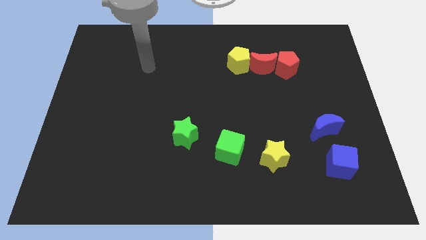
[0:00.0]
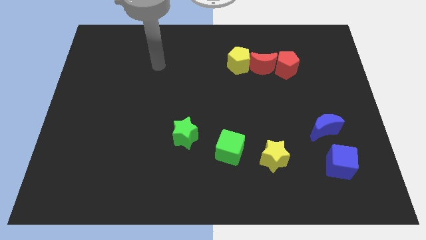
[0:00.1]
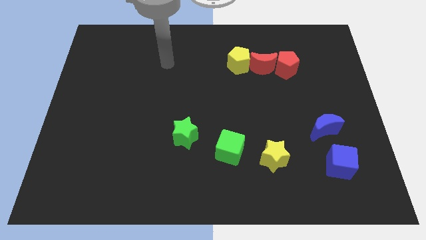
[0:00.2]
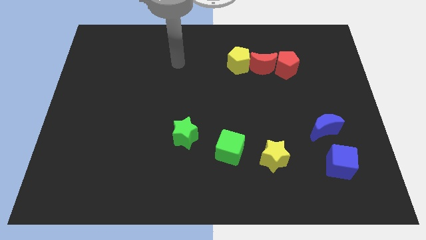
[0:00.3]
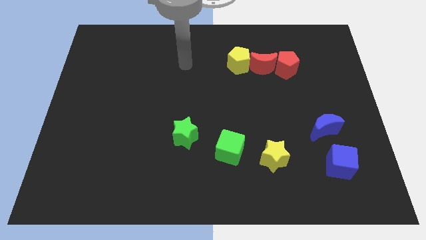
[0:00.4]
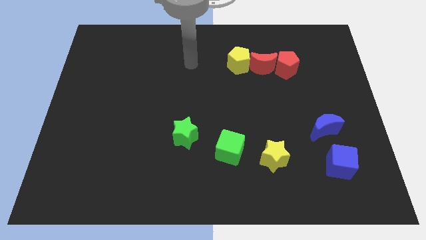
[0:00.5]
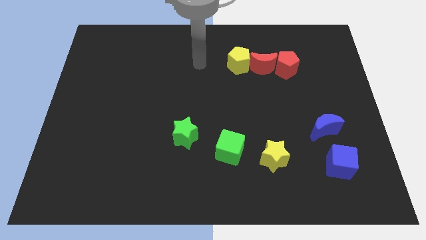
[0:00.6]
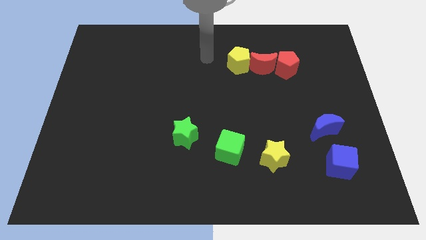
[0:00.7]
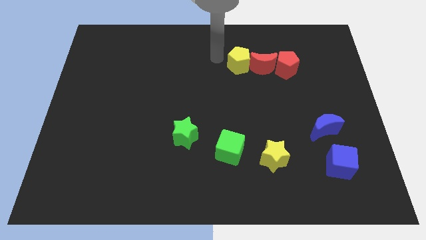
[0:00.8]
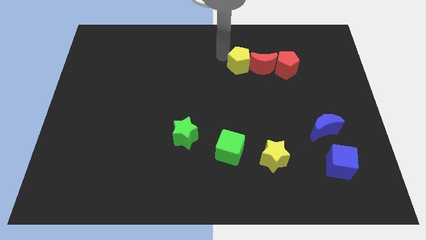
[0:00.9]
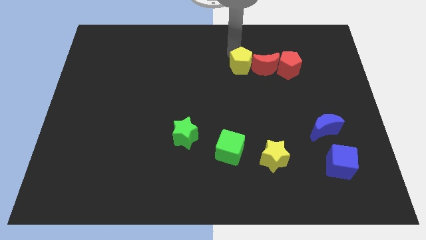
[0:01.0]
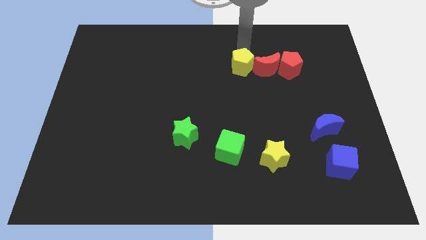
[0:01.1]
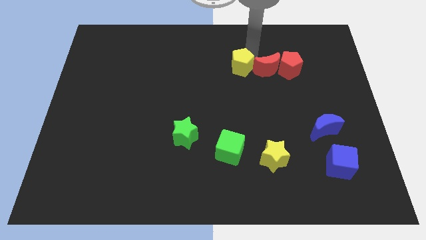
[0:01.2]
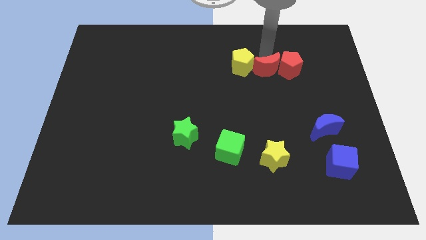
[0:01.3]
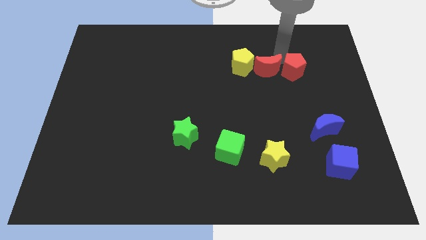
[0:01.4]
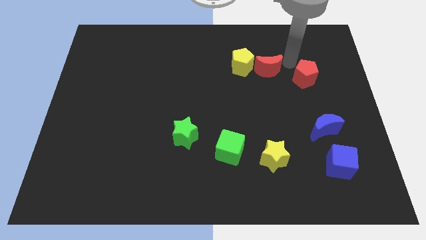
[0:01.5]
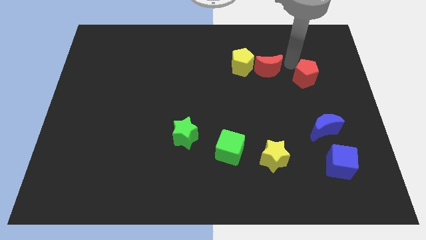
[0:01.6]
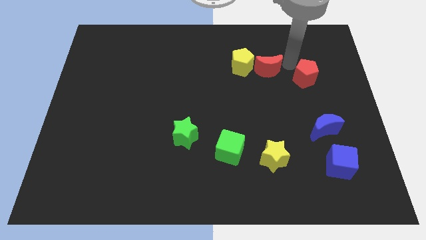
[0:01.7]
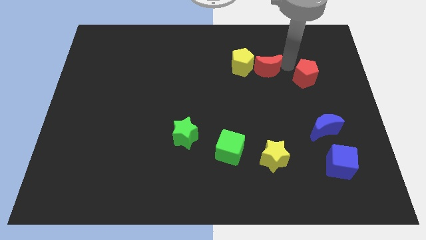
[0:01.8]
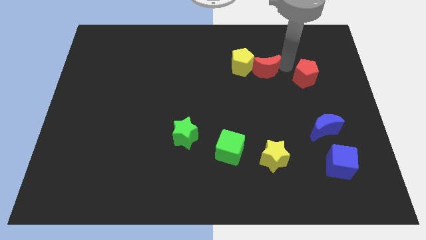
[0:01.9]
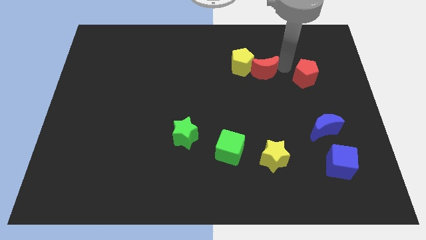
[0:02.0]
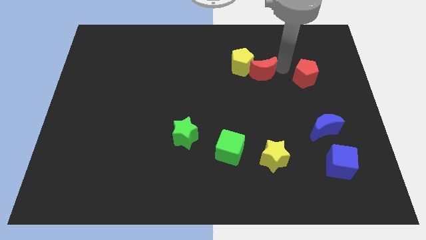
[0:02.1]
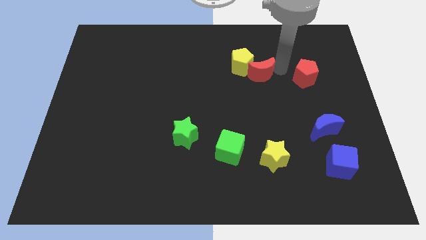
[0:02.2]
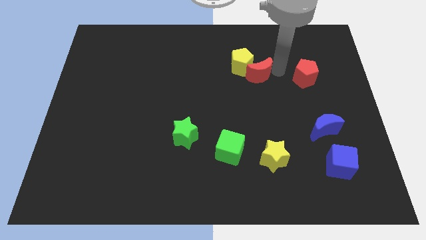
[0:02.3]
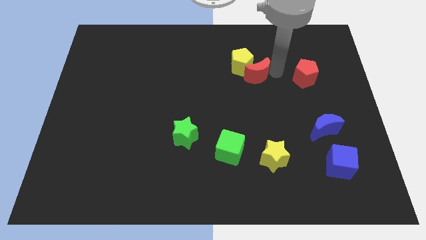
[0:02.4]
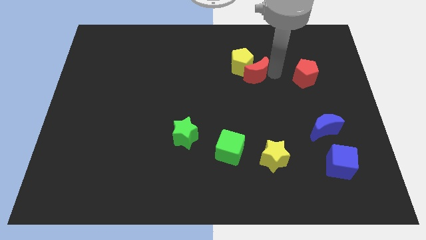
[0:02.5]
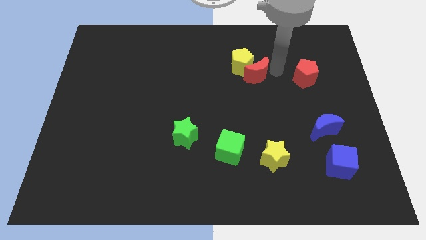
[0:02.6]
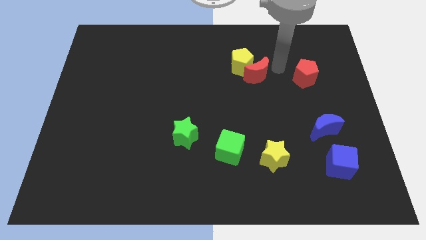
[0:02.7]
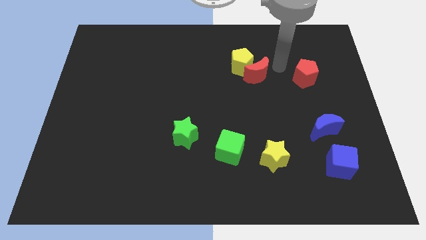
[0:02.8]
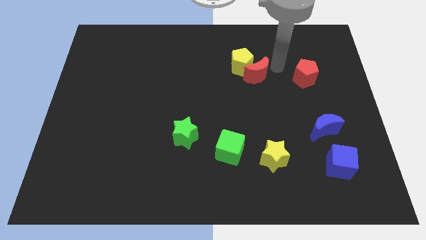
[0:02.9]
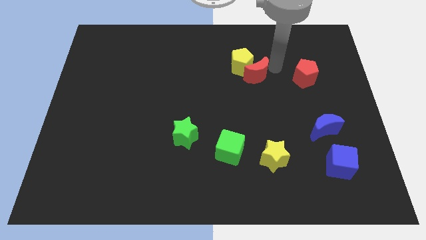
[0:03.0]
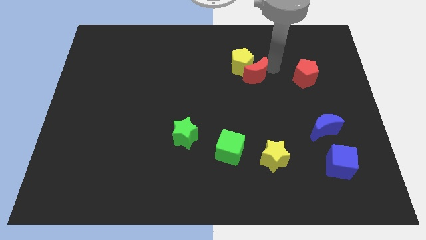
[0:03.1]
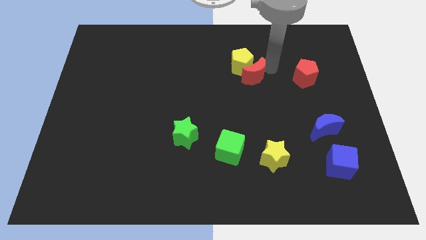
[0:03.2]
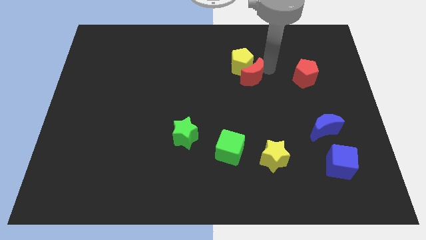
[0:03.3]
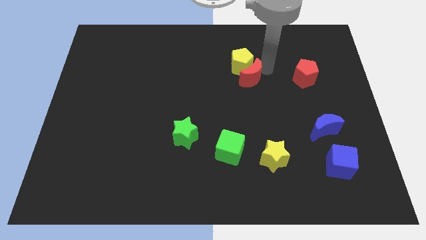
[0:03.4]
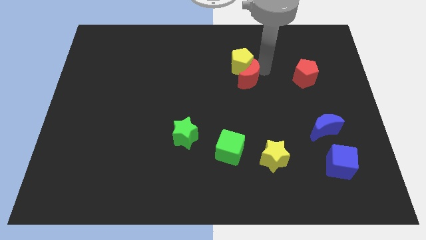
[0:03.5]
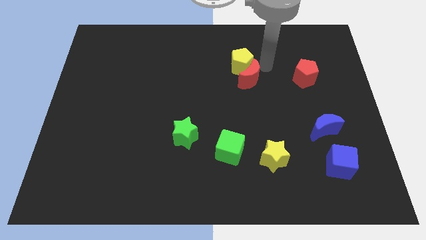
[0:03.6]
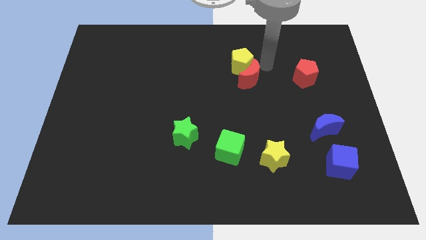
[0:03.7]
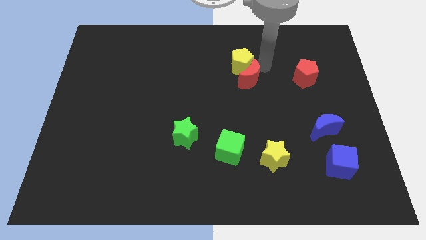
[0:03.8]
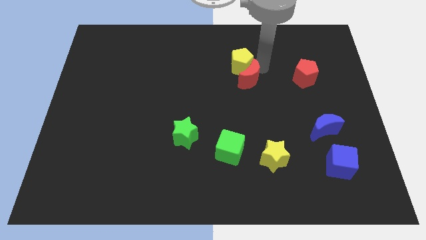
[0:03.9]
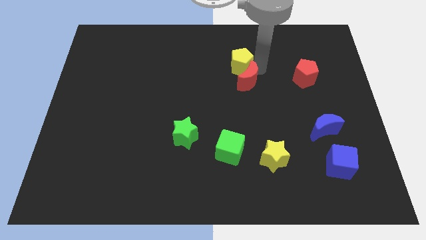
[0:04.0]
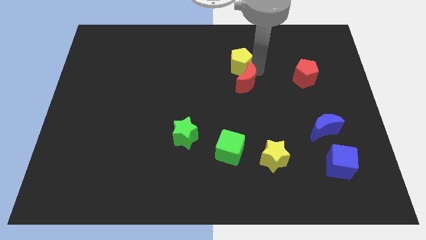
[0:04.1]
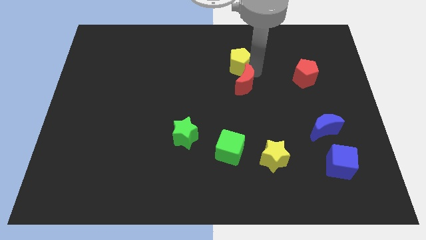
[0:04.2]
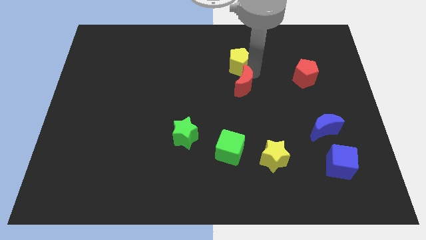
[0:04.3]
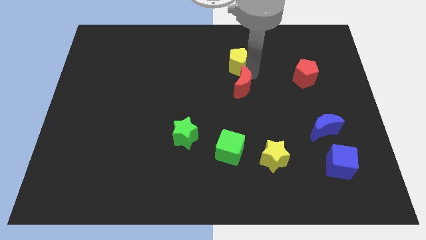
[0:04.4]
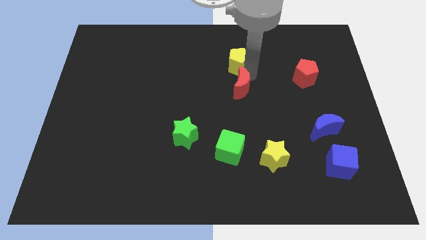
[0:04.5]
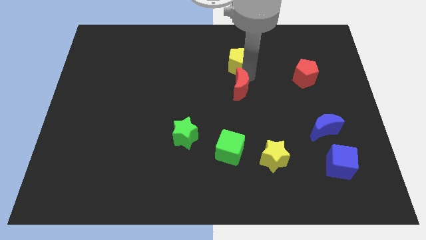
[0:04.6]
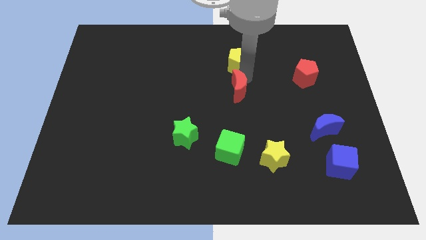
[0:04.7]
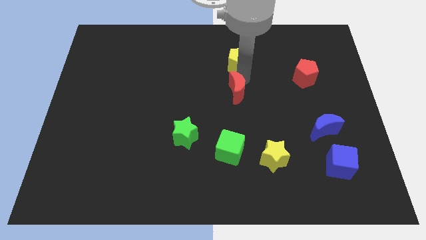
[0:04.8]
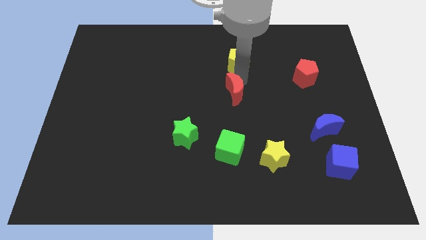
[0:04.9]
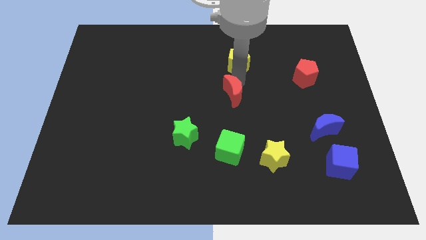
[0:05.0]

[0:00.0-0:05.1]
move the red moon above the green cube

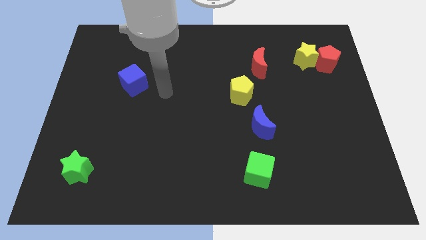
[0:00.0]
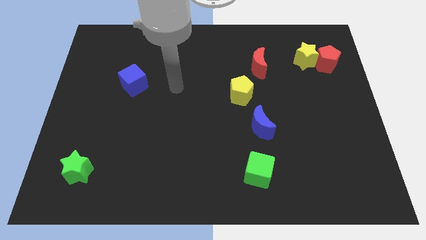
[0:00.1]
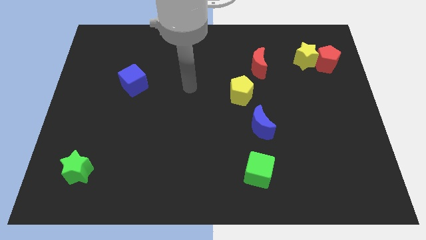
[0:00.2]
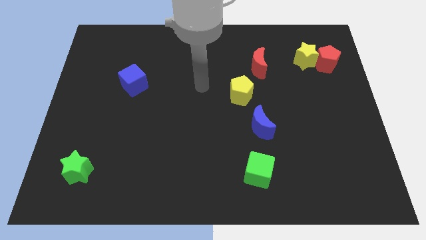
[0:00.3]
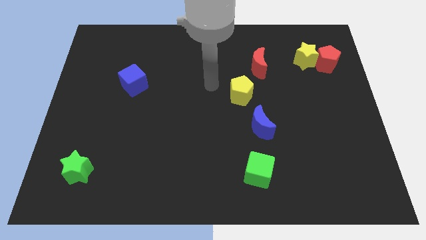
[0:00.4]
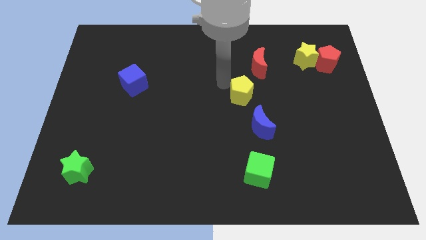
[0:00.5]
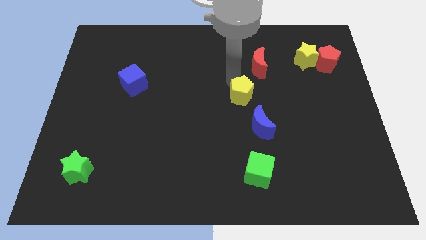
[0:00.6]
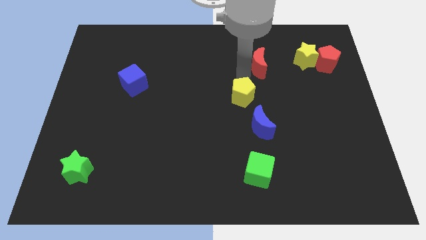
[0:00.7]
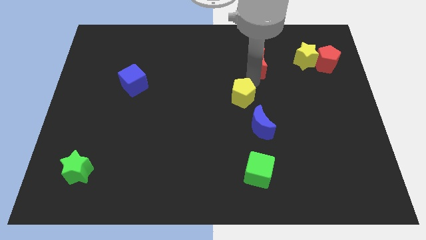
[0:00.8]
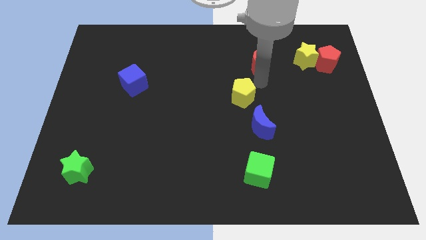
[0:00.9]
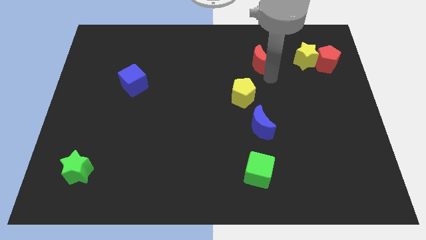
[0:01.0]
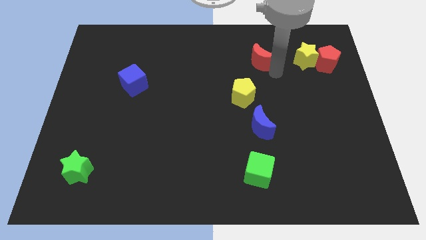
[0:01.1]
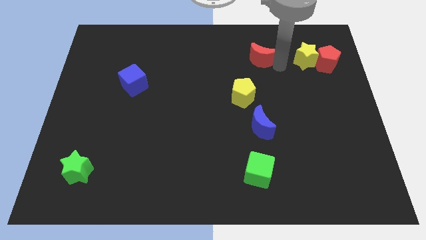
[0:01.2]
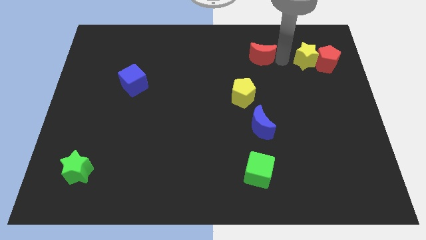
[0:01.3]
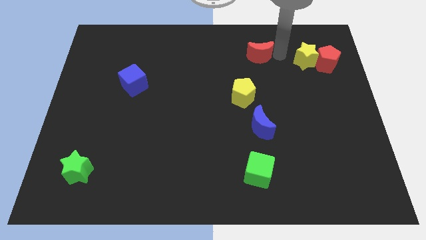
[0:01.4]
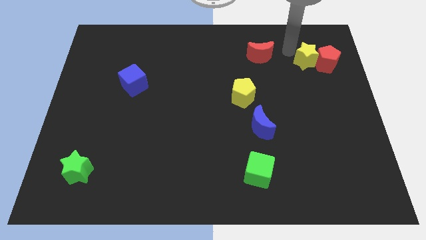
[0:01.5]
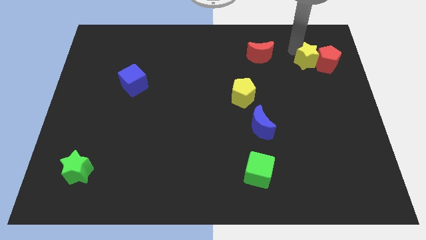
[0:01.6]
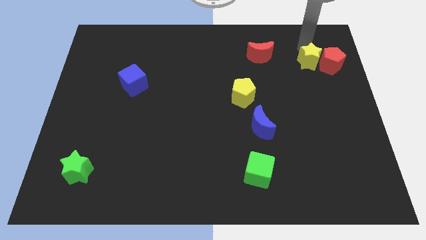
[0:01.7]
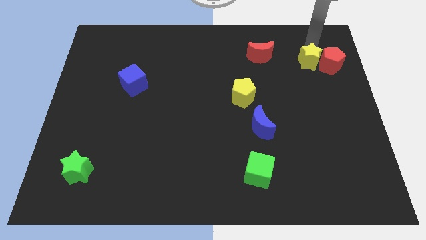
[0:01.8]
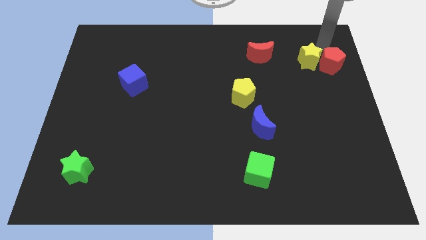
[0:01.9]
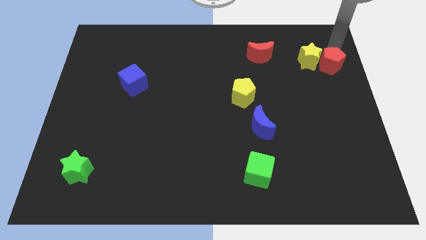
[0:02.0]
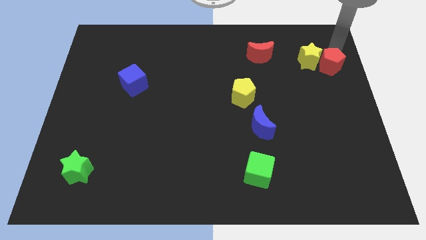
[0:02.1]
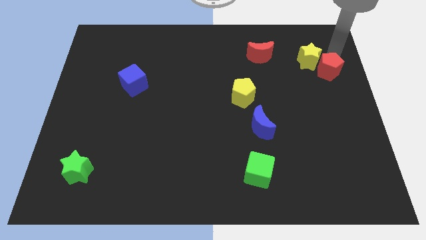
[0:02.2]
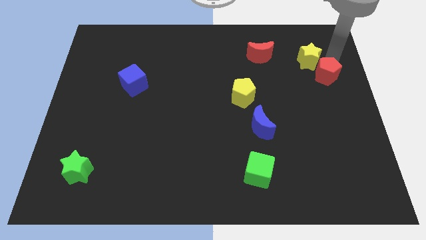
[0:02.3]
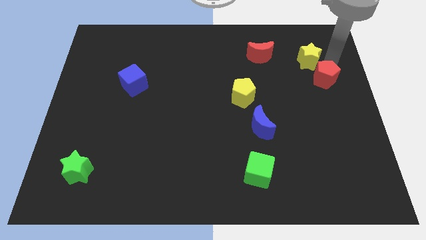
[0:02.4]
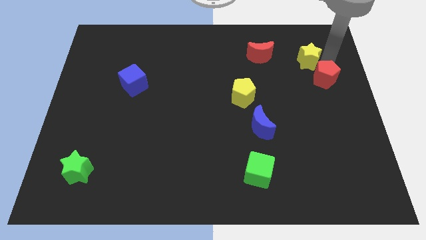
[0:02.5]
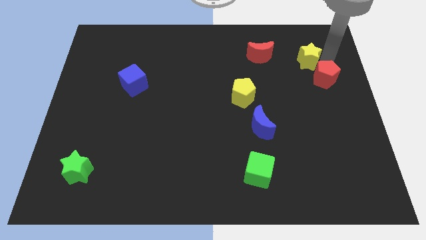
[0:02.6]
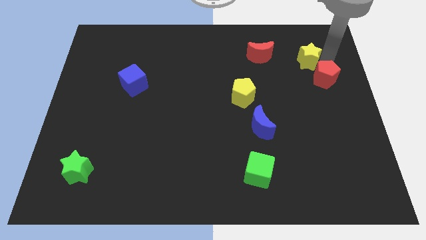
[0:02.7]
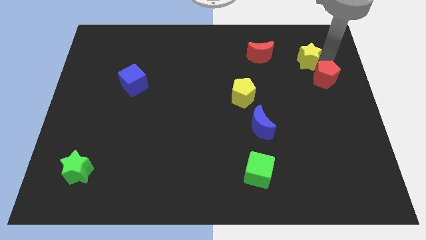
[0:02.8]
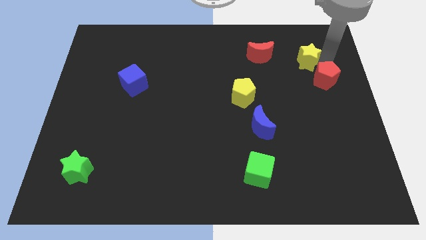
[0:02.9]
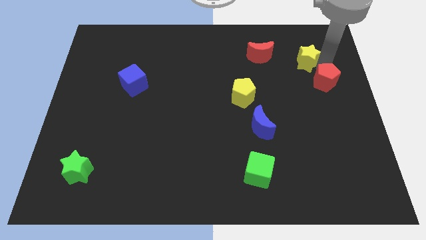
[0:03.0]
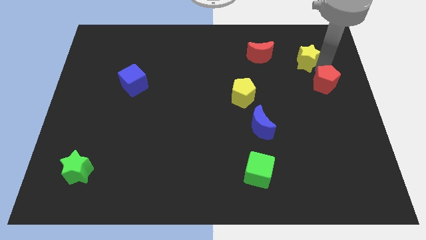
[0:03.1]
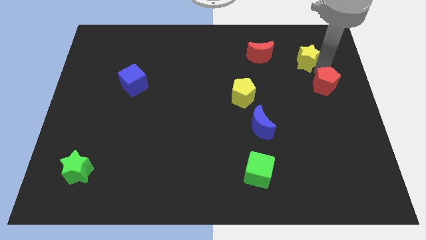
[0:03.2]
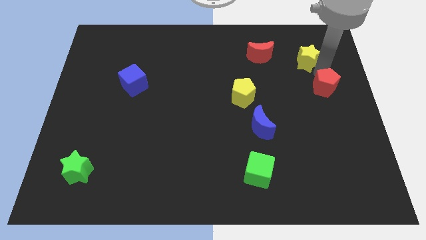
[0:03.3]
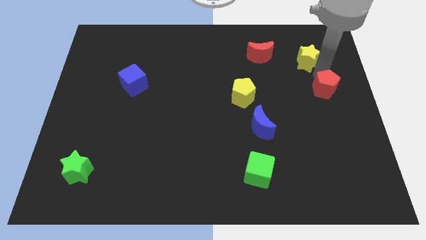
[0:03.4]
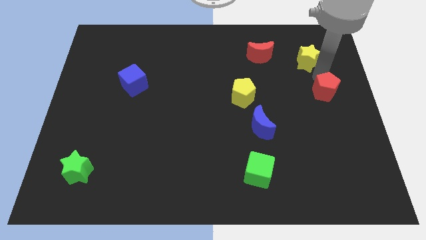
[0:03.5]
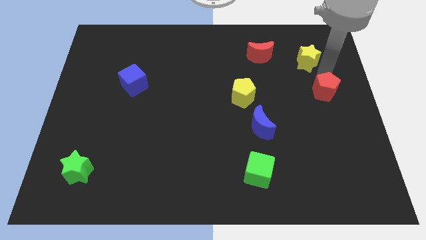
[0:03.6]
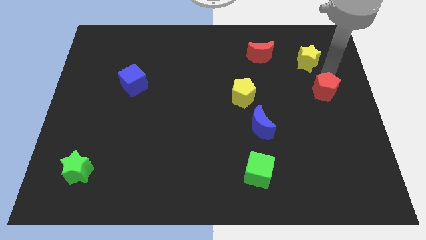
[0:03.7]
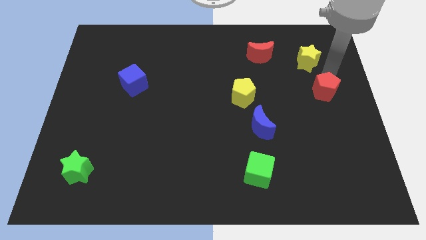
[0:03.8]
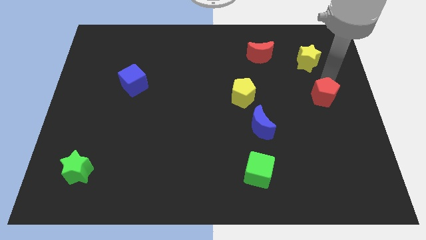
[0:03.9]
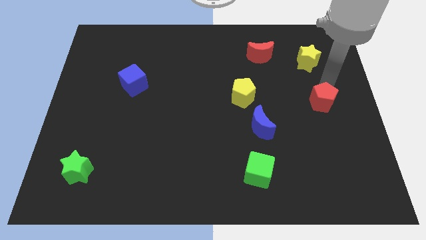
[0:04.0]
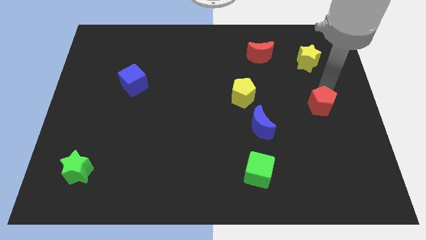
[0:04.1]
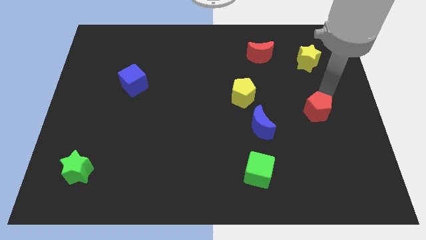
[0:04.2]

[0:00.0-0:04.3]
move the red pentagon just right of the blue moon
